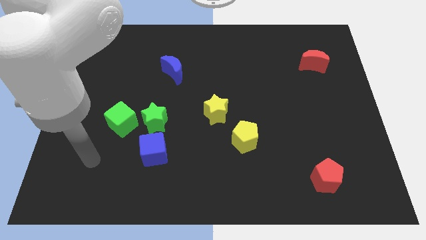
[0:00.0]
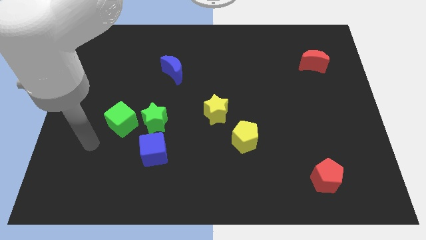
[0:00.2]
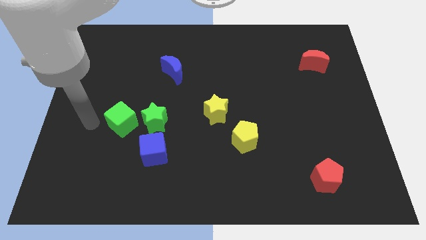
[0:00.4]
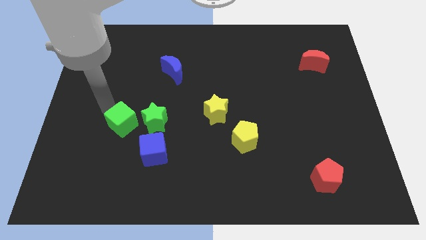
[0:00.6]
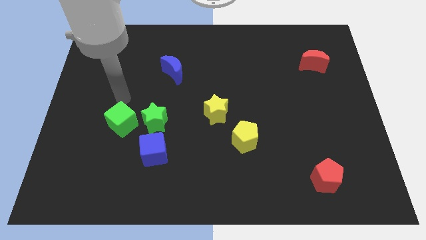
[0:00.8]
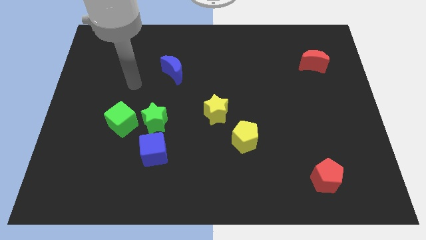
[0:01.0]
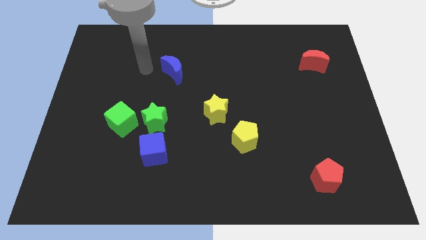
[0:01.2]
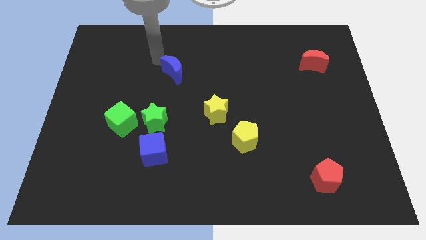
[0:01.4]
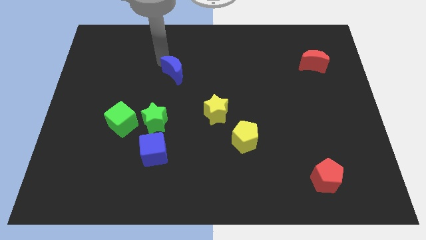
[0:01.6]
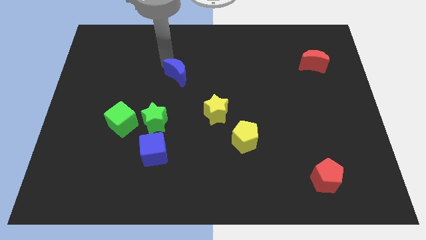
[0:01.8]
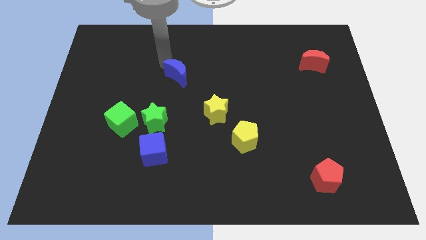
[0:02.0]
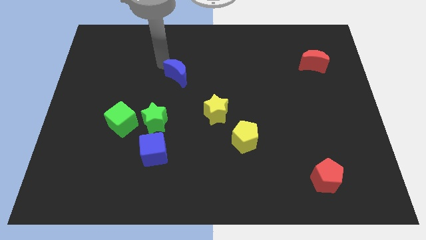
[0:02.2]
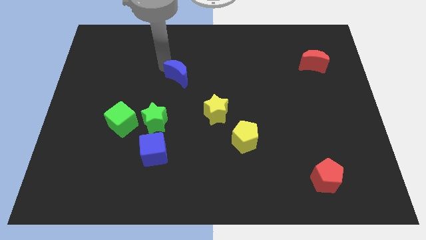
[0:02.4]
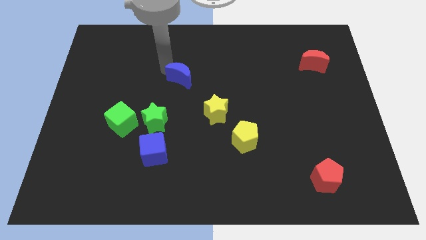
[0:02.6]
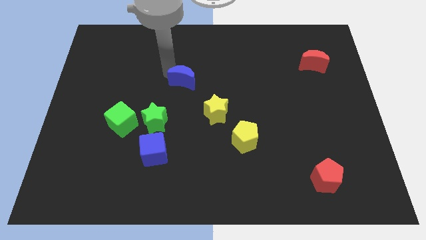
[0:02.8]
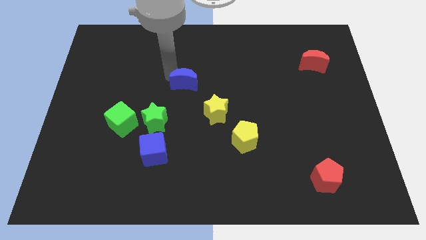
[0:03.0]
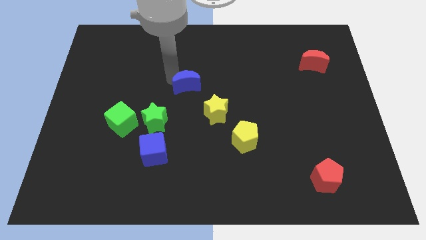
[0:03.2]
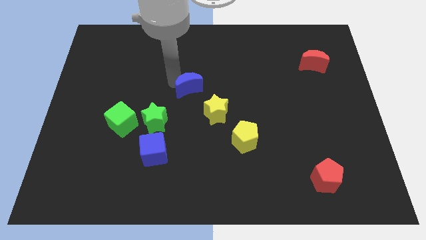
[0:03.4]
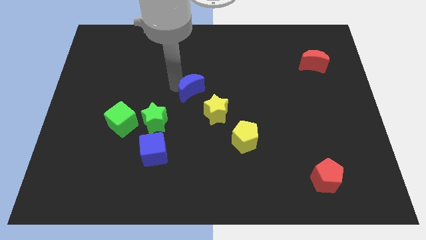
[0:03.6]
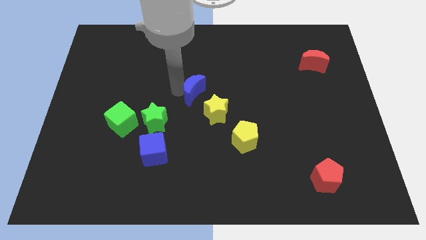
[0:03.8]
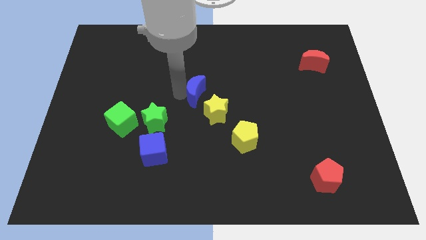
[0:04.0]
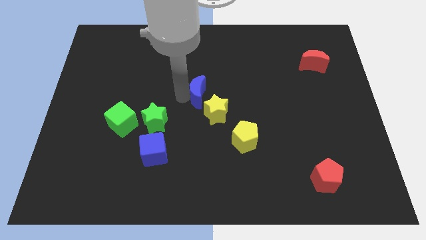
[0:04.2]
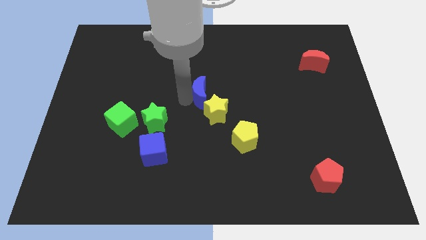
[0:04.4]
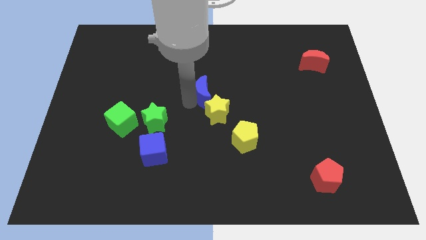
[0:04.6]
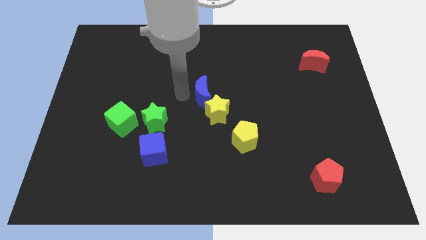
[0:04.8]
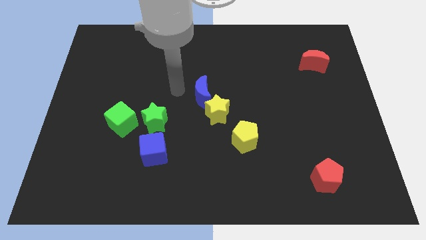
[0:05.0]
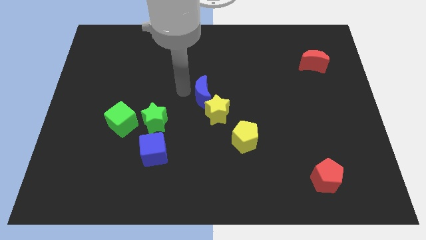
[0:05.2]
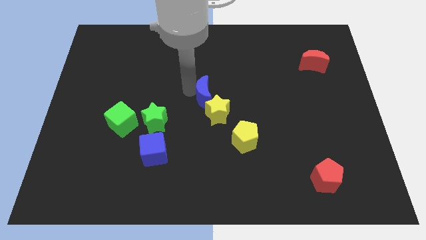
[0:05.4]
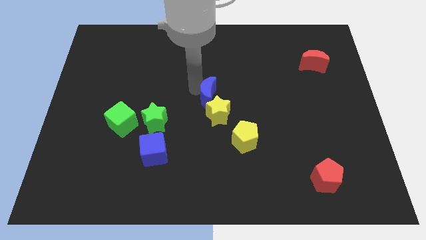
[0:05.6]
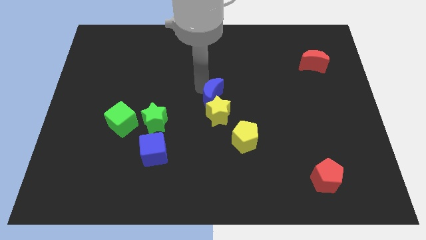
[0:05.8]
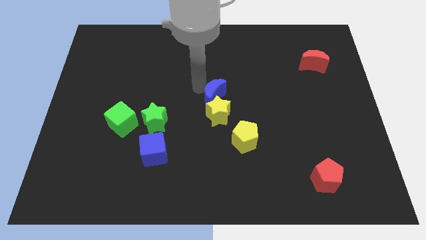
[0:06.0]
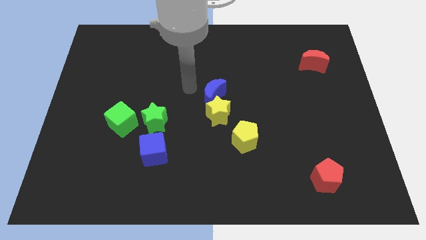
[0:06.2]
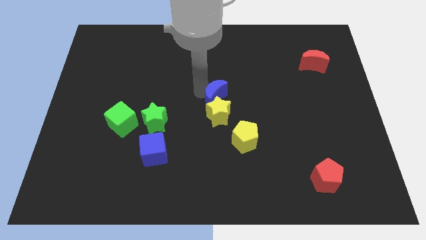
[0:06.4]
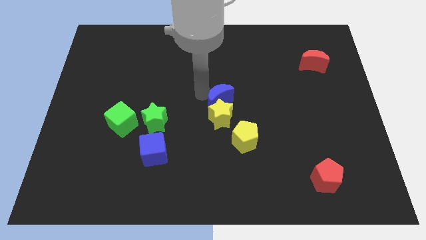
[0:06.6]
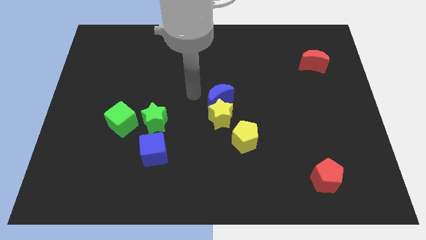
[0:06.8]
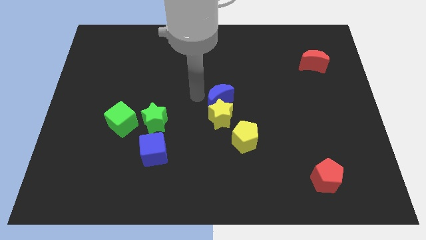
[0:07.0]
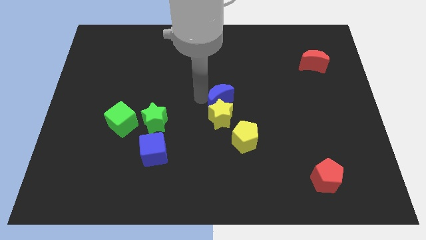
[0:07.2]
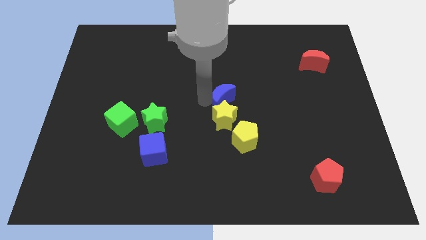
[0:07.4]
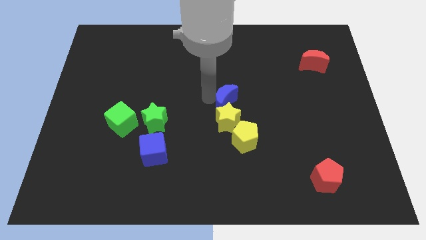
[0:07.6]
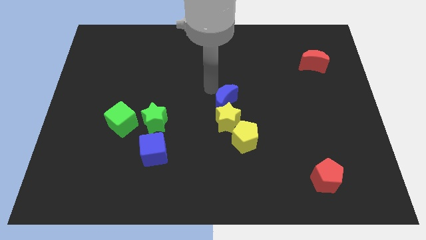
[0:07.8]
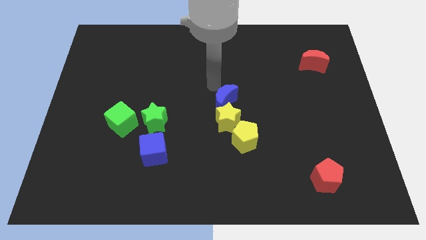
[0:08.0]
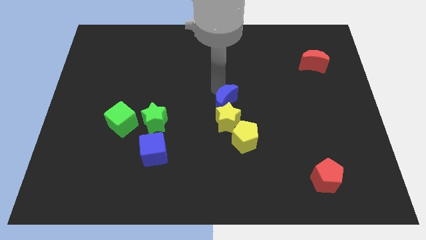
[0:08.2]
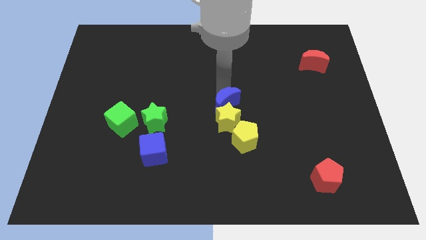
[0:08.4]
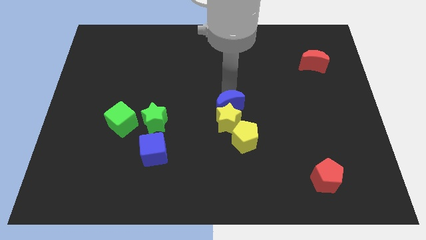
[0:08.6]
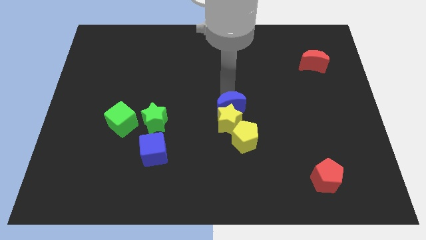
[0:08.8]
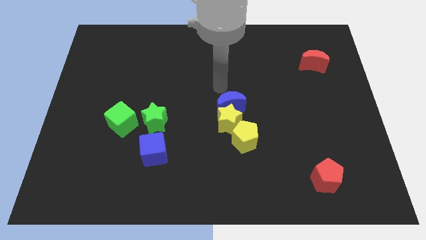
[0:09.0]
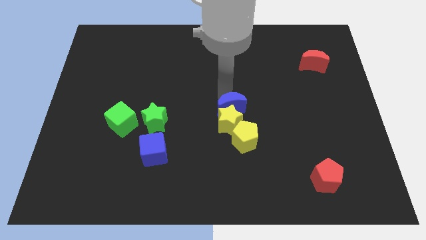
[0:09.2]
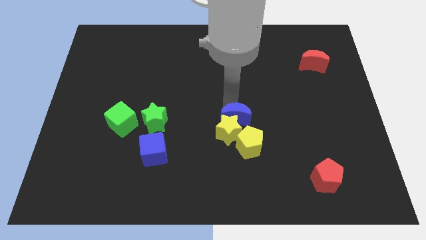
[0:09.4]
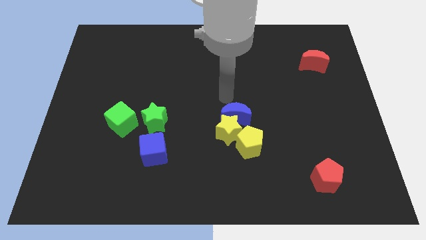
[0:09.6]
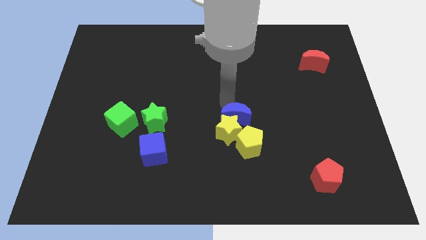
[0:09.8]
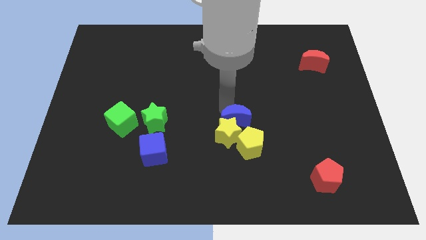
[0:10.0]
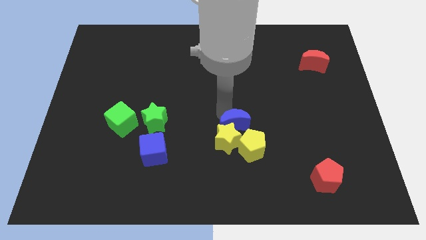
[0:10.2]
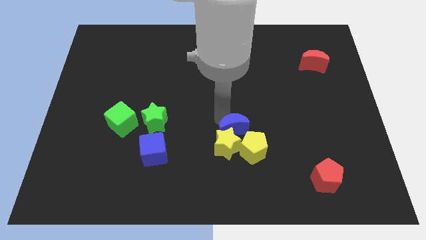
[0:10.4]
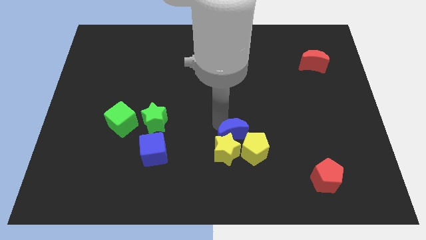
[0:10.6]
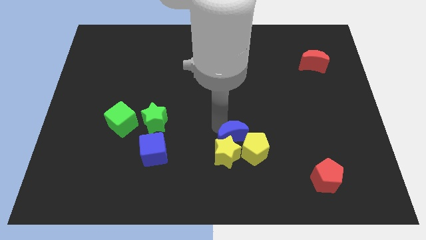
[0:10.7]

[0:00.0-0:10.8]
put the blue moon next to the yellow pentagon

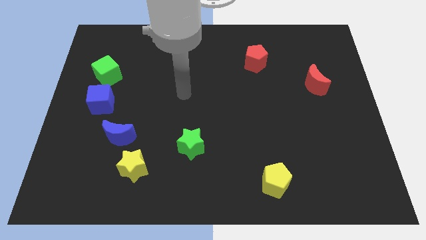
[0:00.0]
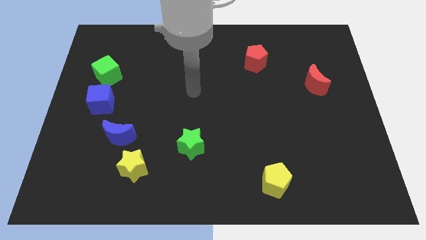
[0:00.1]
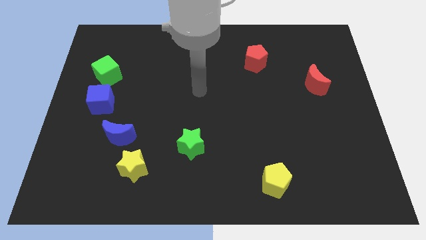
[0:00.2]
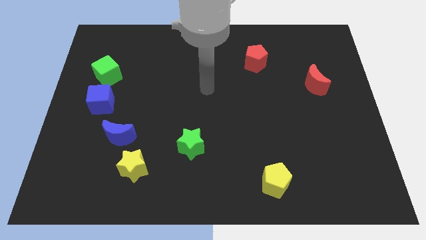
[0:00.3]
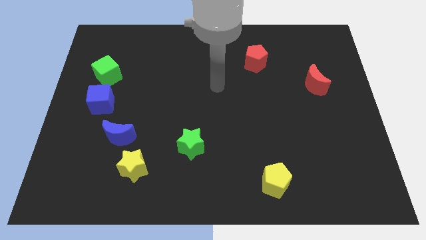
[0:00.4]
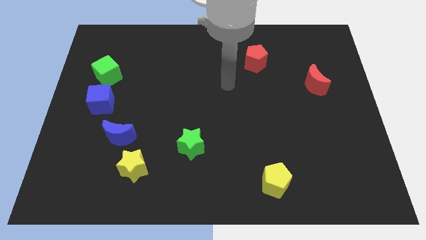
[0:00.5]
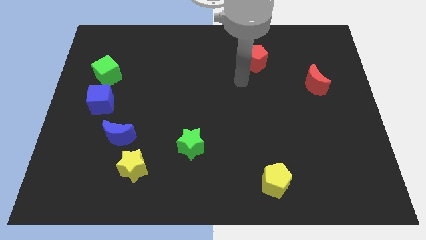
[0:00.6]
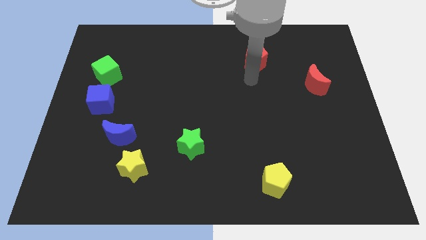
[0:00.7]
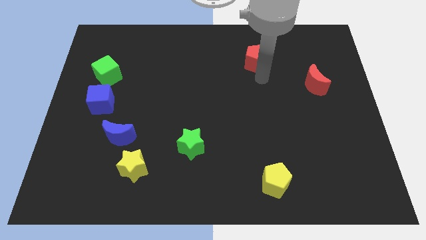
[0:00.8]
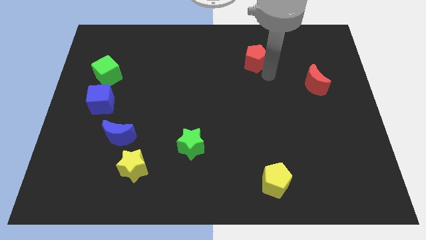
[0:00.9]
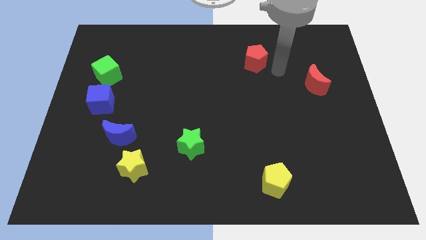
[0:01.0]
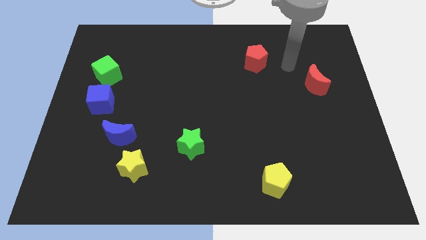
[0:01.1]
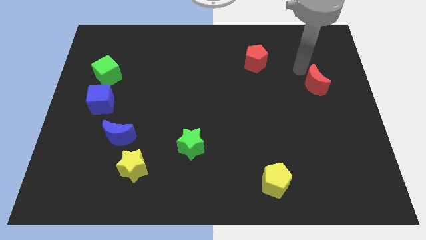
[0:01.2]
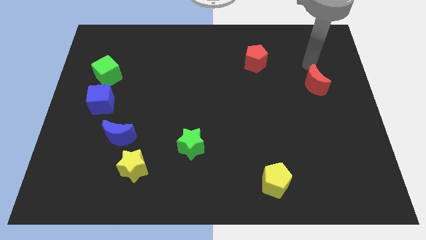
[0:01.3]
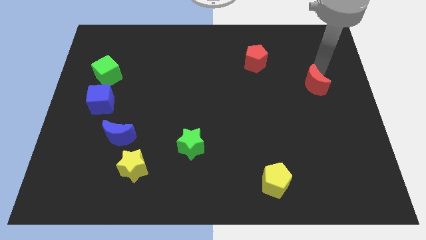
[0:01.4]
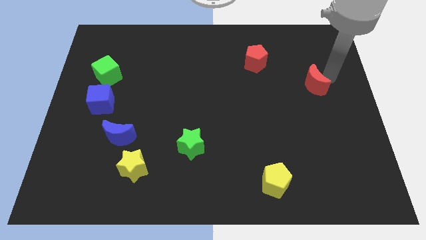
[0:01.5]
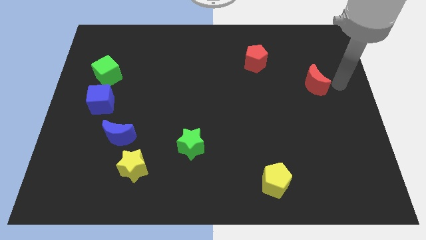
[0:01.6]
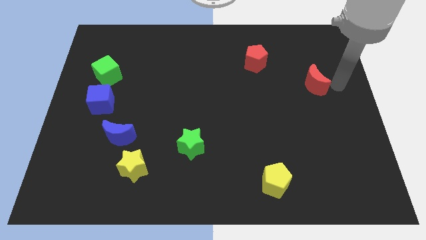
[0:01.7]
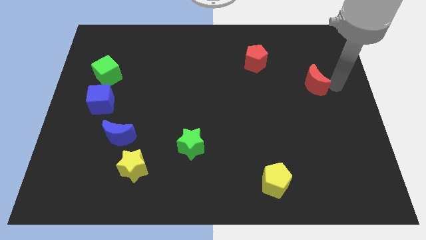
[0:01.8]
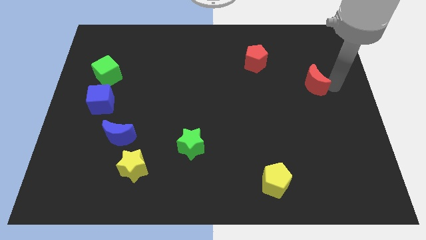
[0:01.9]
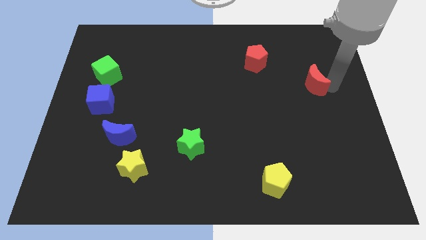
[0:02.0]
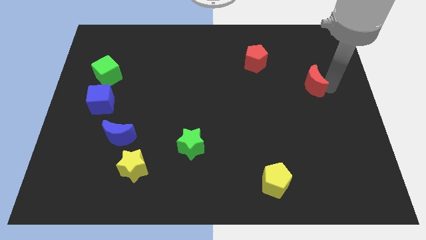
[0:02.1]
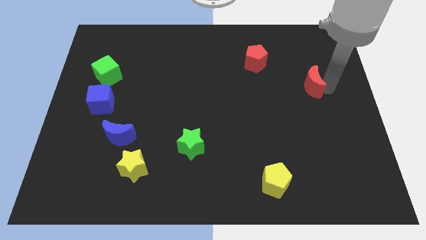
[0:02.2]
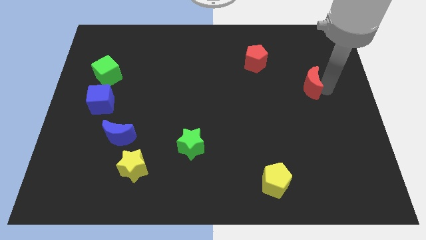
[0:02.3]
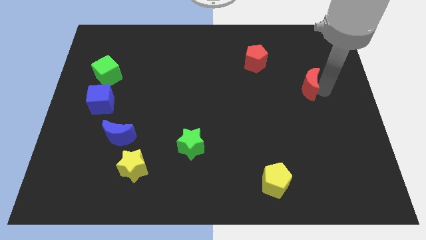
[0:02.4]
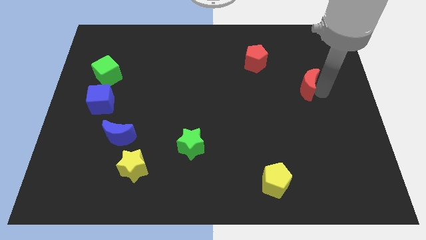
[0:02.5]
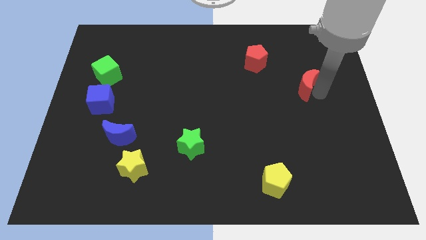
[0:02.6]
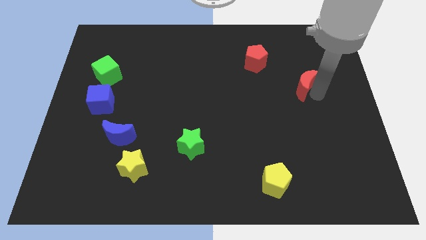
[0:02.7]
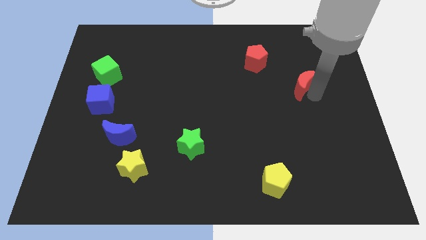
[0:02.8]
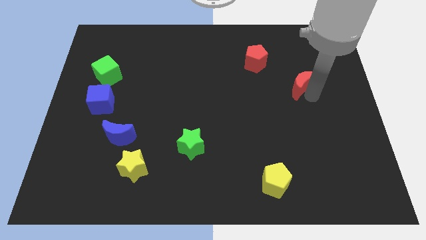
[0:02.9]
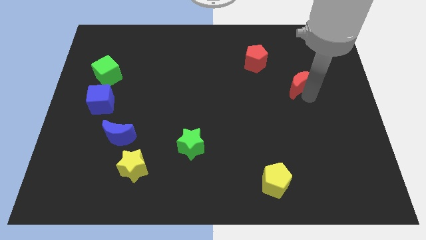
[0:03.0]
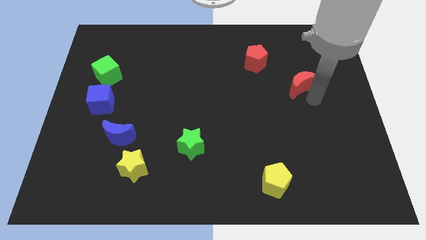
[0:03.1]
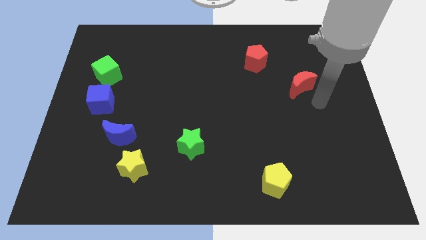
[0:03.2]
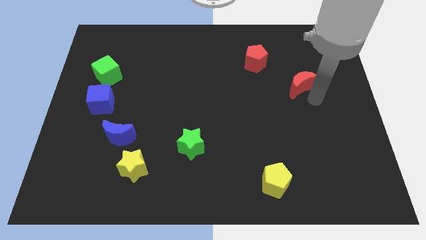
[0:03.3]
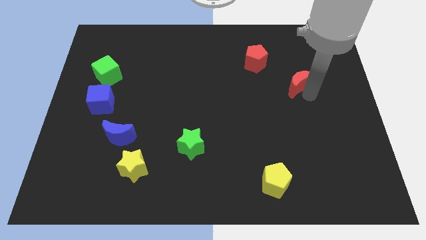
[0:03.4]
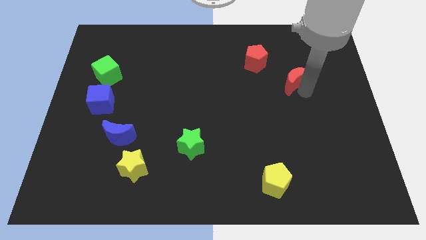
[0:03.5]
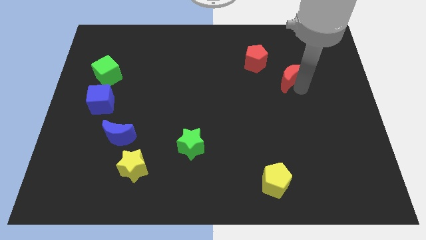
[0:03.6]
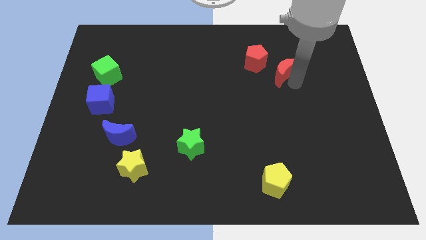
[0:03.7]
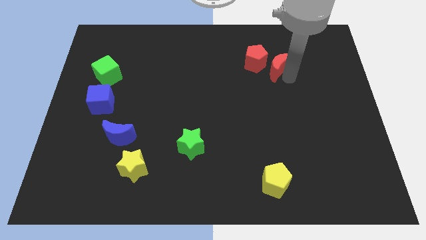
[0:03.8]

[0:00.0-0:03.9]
slide the red moon towards the red pentagon
